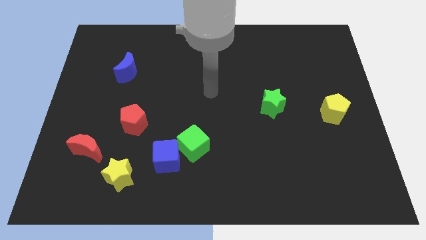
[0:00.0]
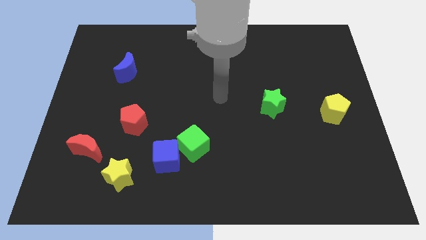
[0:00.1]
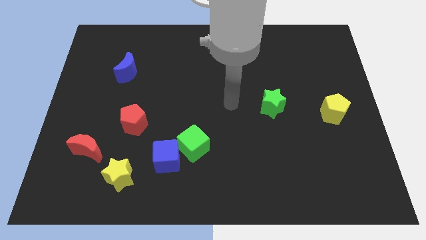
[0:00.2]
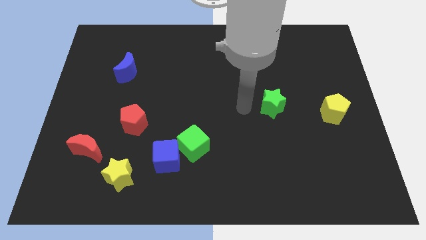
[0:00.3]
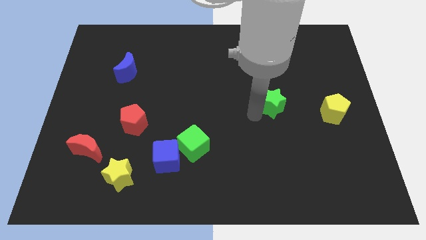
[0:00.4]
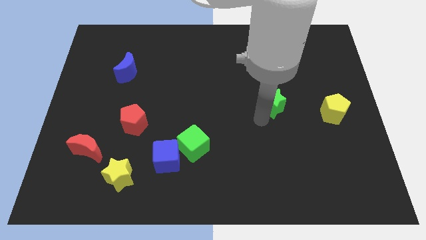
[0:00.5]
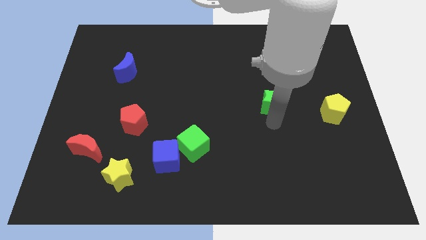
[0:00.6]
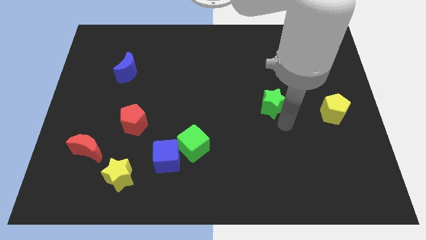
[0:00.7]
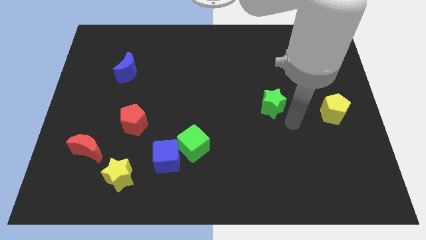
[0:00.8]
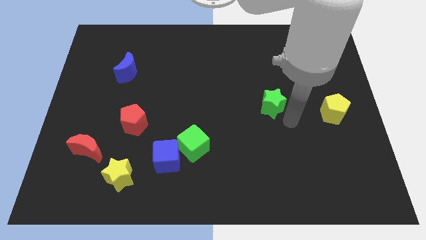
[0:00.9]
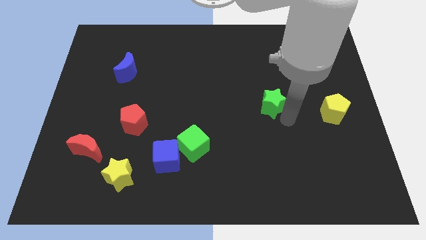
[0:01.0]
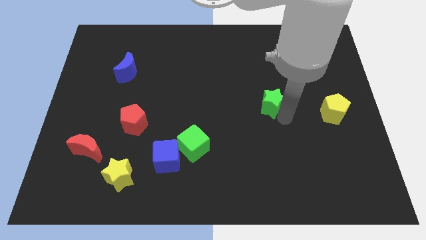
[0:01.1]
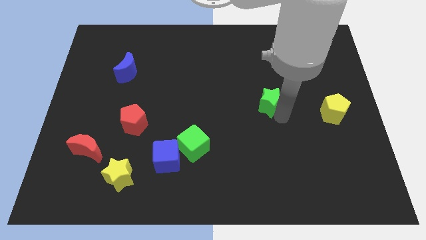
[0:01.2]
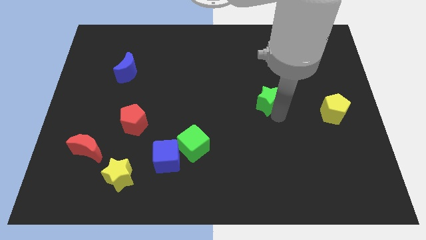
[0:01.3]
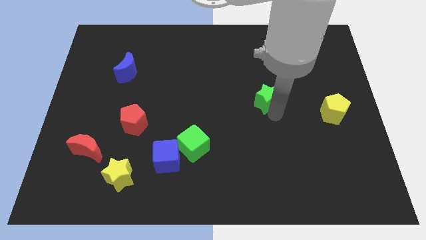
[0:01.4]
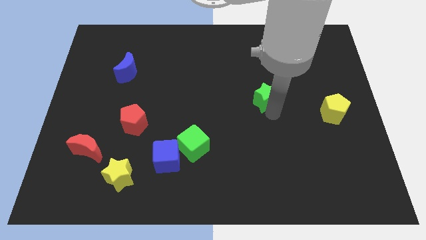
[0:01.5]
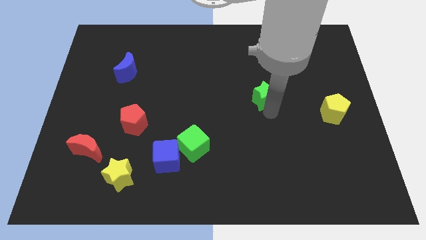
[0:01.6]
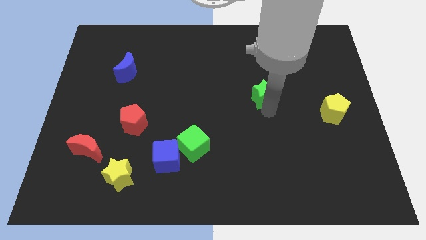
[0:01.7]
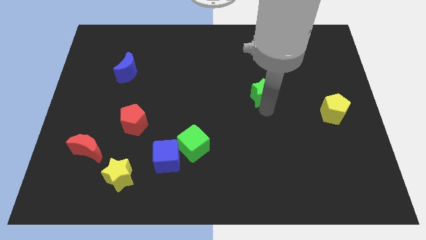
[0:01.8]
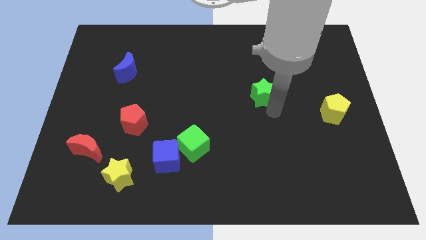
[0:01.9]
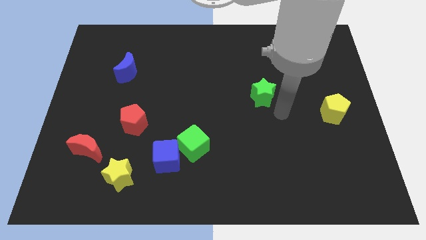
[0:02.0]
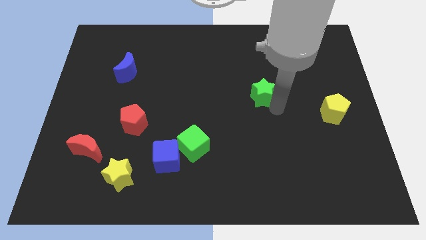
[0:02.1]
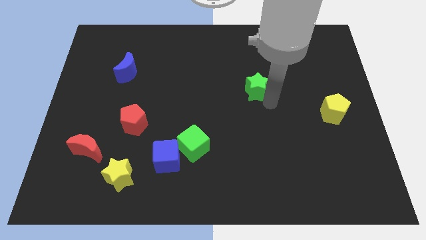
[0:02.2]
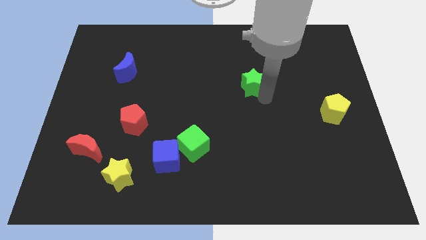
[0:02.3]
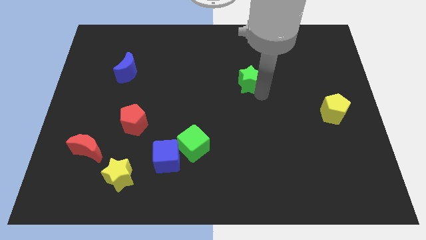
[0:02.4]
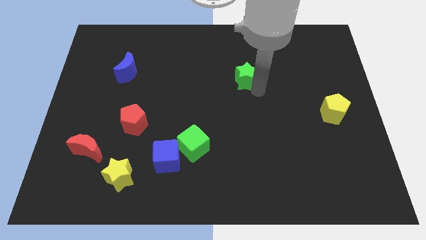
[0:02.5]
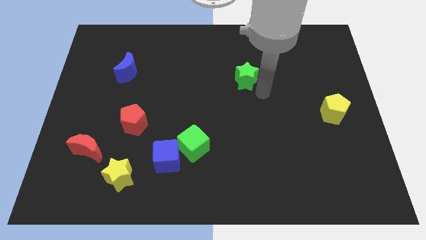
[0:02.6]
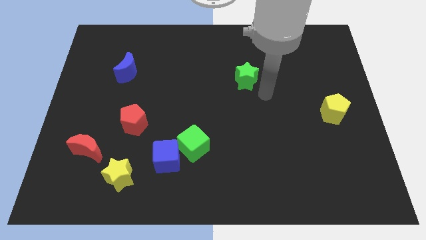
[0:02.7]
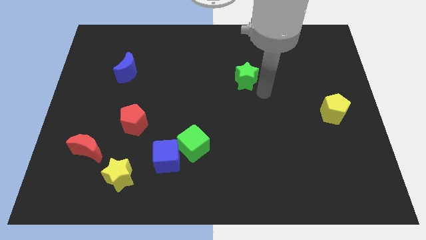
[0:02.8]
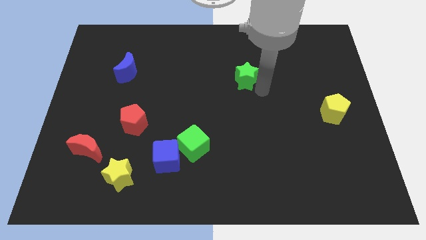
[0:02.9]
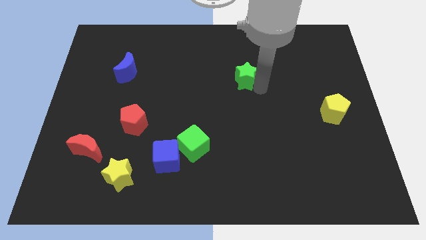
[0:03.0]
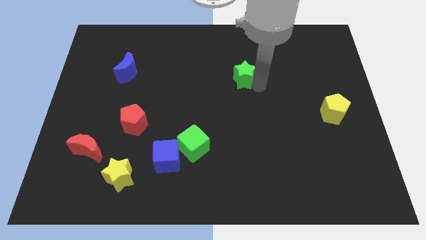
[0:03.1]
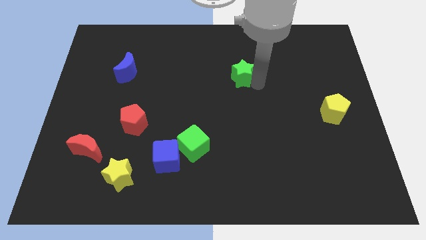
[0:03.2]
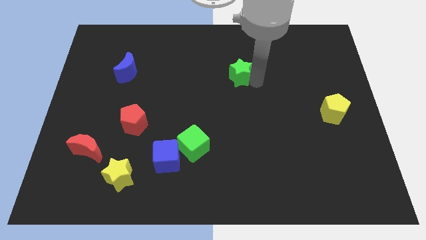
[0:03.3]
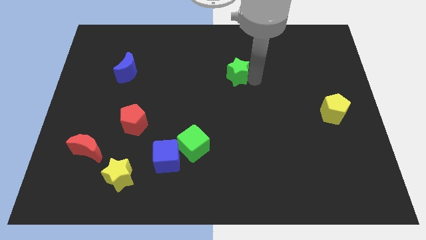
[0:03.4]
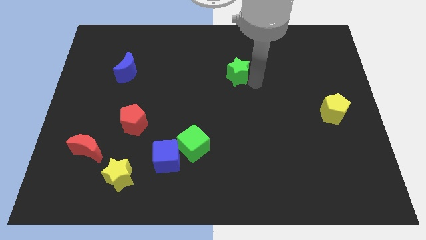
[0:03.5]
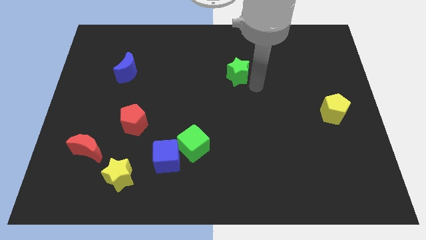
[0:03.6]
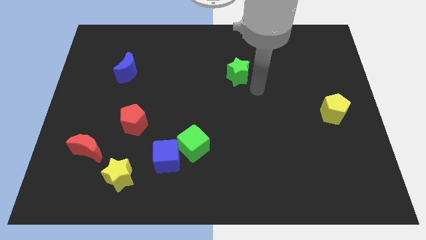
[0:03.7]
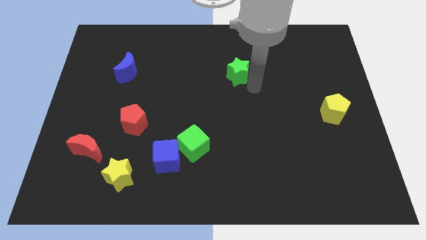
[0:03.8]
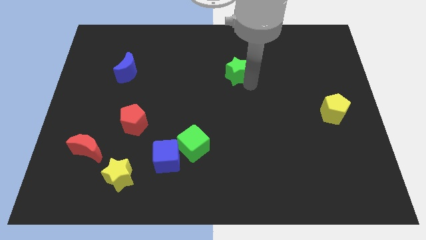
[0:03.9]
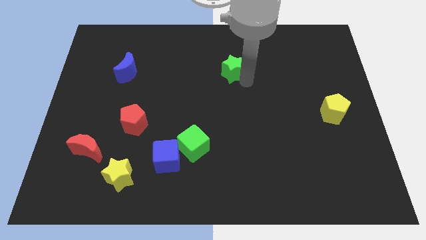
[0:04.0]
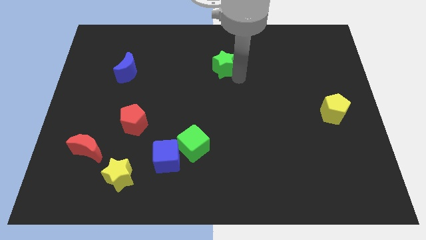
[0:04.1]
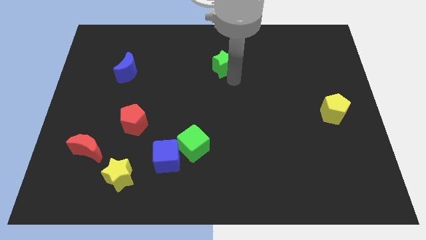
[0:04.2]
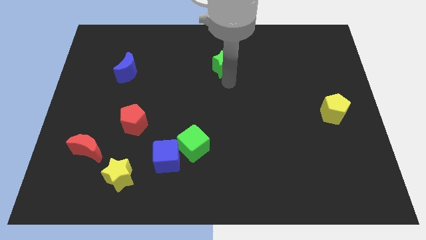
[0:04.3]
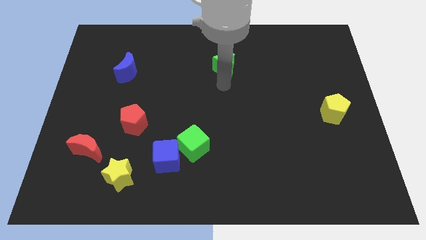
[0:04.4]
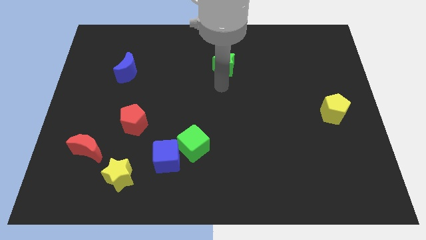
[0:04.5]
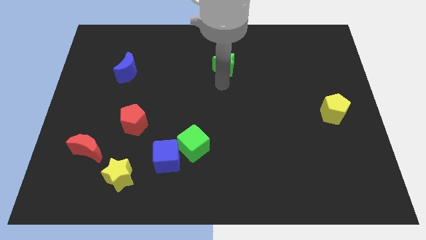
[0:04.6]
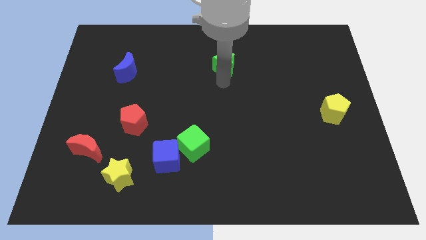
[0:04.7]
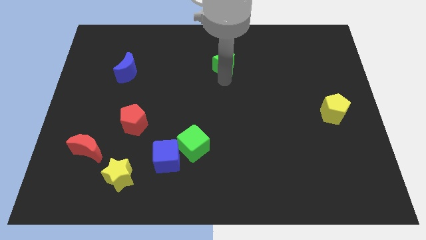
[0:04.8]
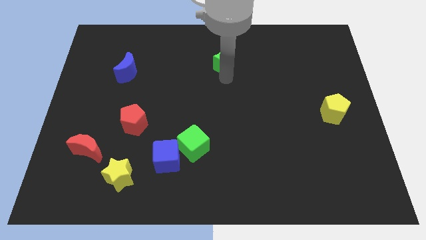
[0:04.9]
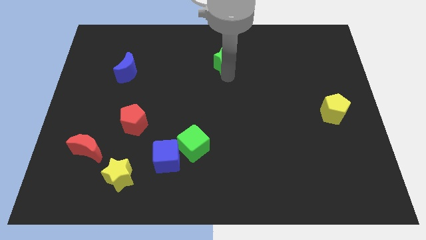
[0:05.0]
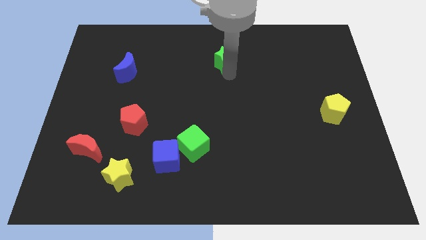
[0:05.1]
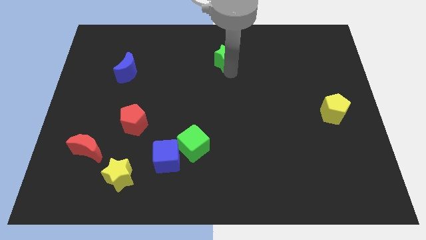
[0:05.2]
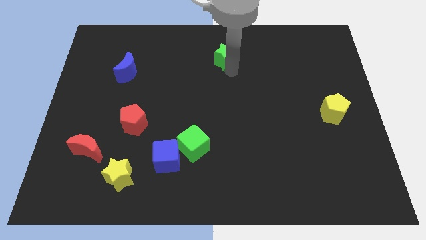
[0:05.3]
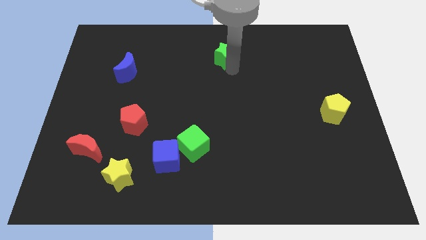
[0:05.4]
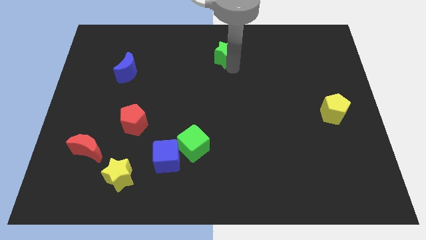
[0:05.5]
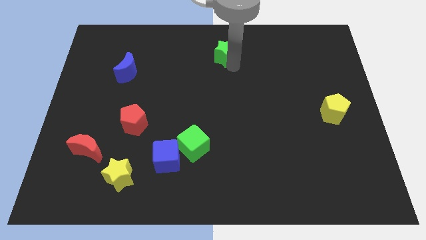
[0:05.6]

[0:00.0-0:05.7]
move the green star to the top side

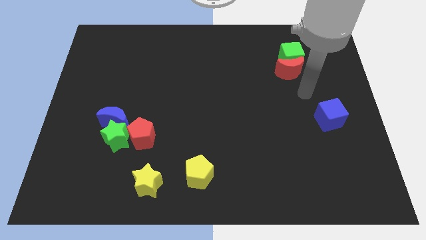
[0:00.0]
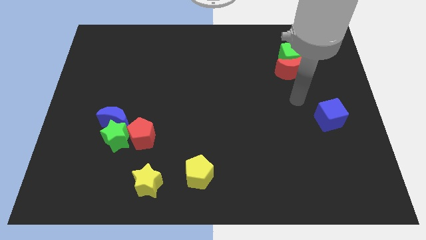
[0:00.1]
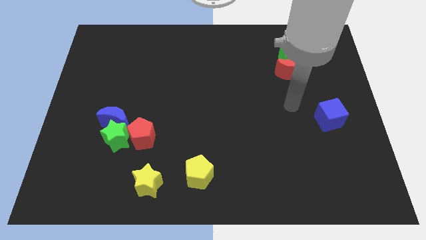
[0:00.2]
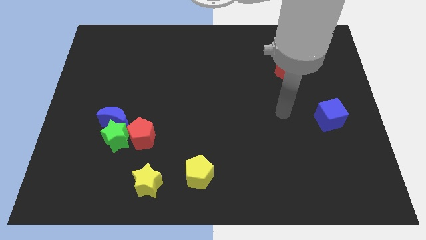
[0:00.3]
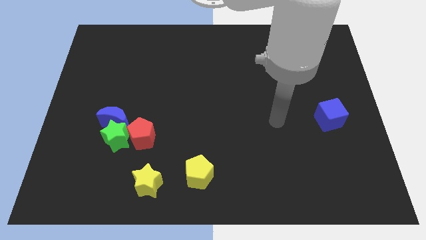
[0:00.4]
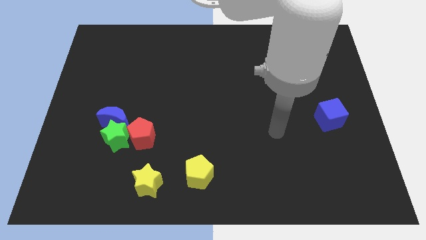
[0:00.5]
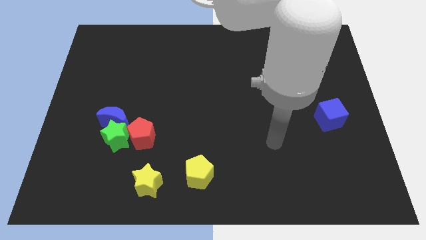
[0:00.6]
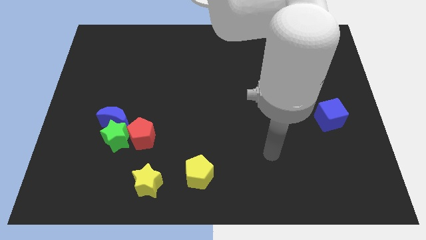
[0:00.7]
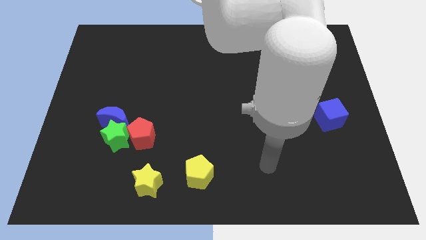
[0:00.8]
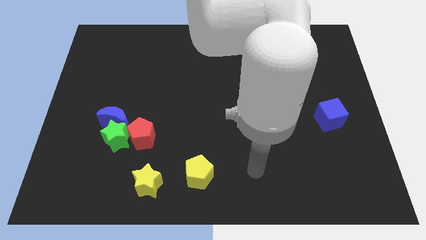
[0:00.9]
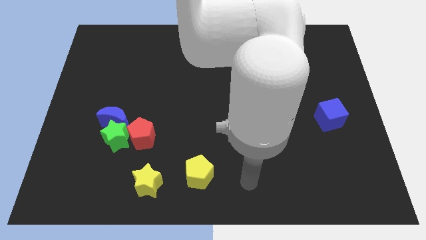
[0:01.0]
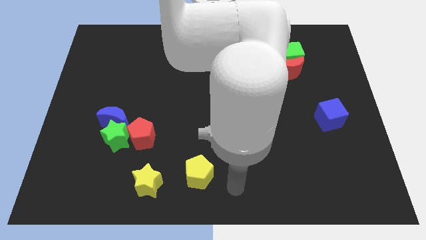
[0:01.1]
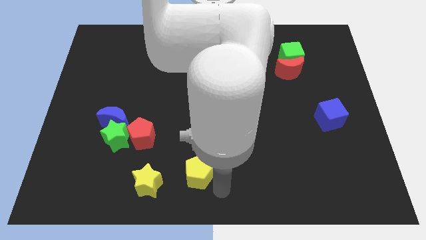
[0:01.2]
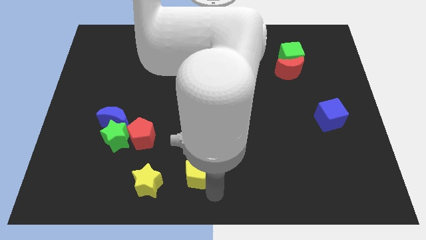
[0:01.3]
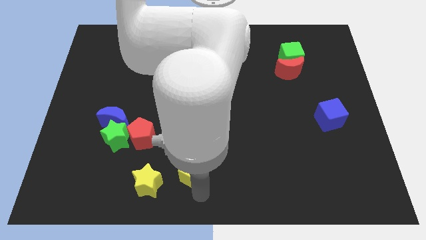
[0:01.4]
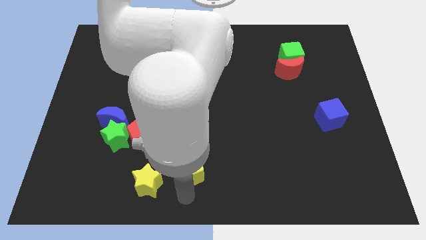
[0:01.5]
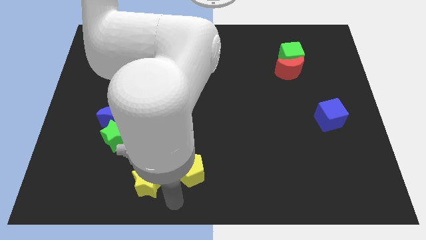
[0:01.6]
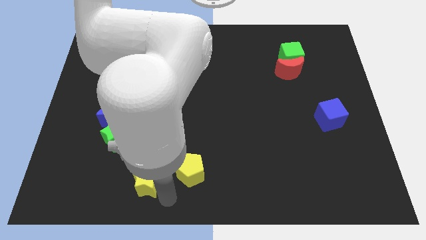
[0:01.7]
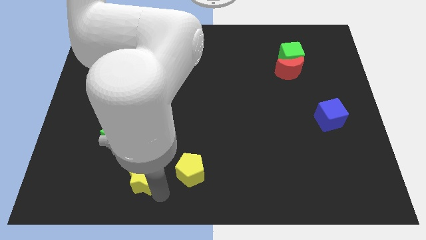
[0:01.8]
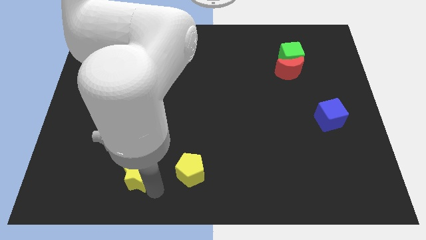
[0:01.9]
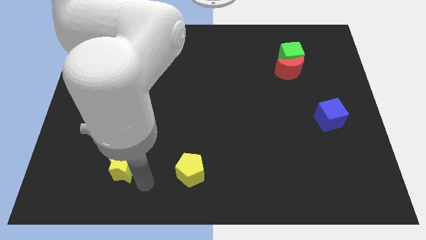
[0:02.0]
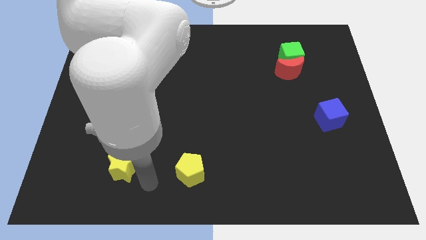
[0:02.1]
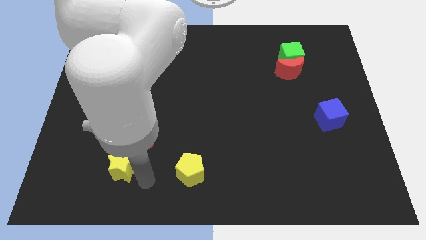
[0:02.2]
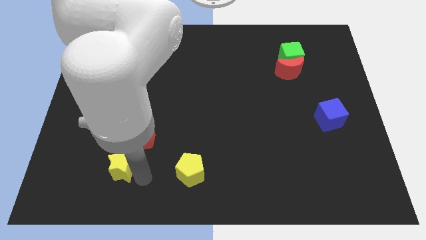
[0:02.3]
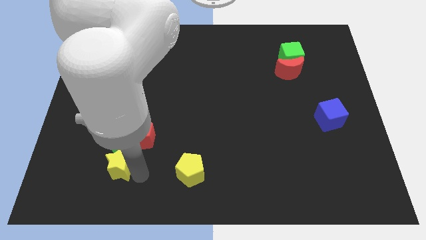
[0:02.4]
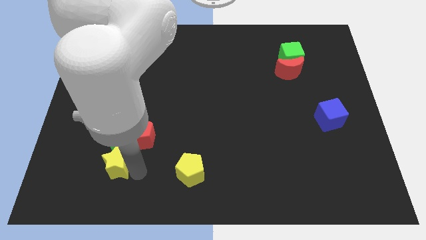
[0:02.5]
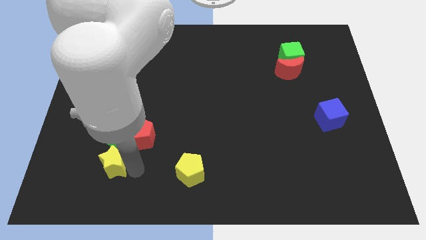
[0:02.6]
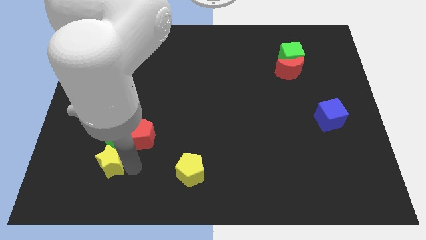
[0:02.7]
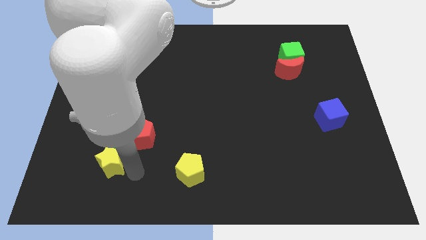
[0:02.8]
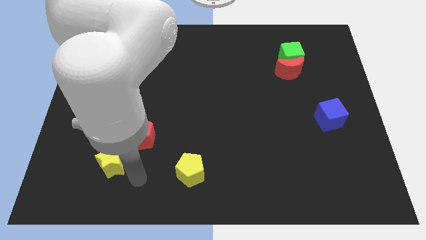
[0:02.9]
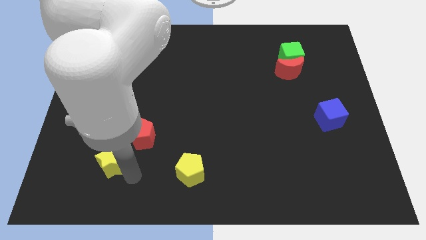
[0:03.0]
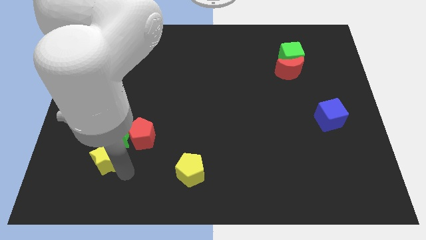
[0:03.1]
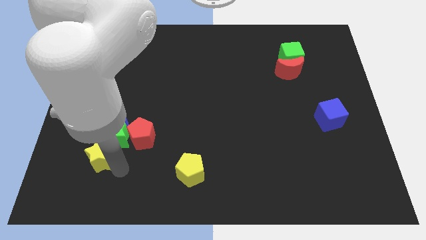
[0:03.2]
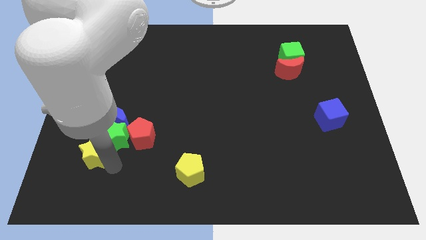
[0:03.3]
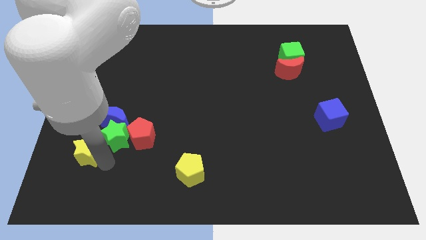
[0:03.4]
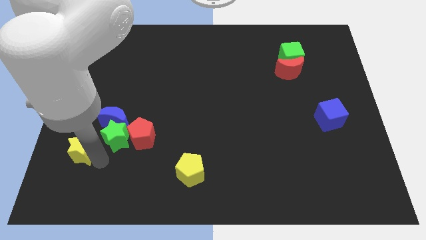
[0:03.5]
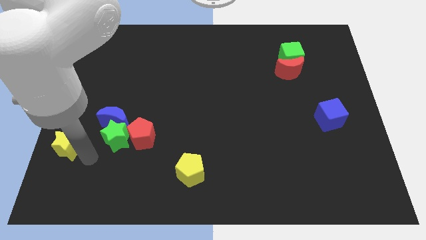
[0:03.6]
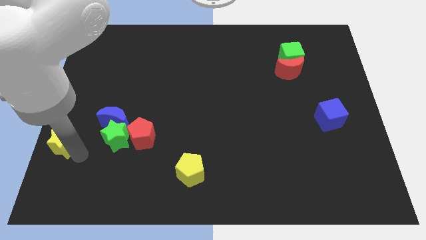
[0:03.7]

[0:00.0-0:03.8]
put the yellow star to the left side
